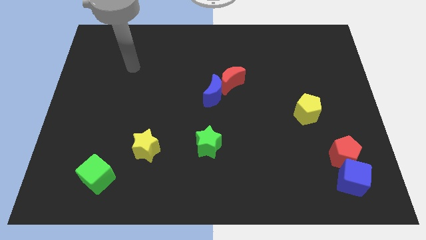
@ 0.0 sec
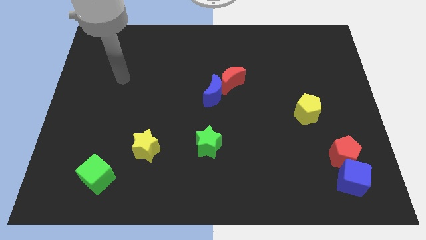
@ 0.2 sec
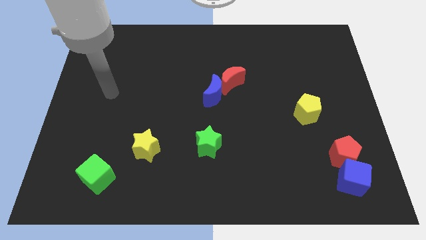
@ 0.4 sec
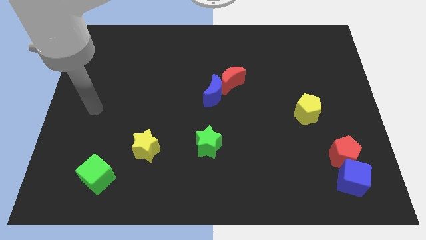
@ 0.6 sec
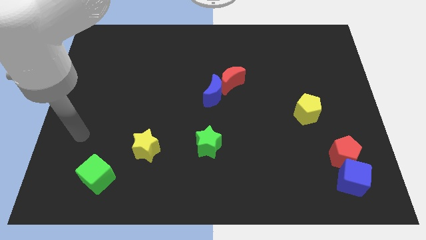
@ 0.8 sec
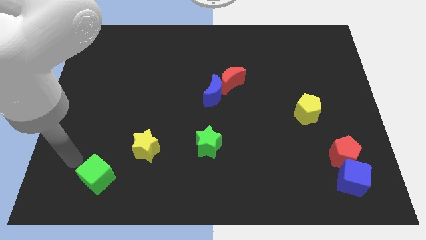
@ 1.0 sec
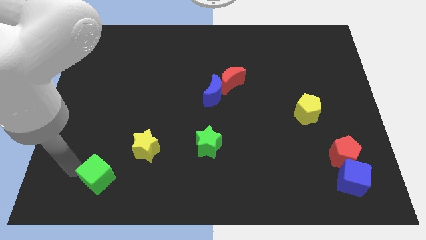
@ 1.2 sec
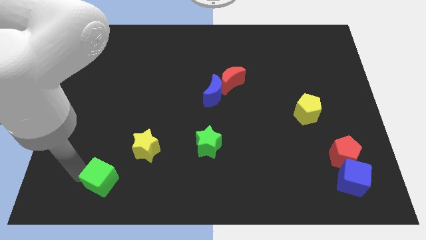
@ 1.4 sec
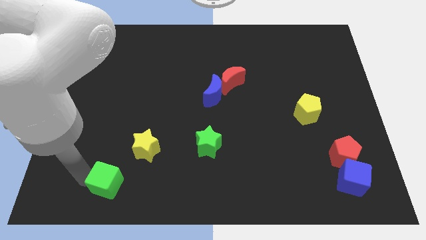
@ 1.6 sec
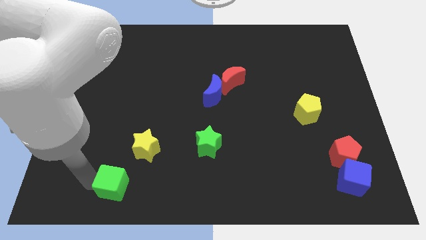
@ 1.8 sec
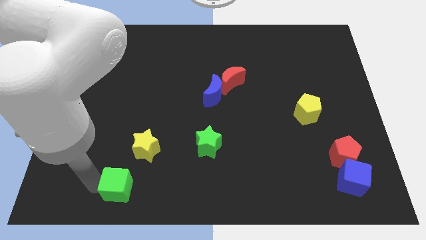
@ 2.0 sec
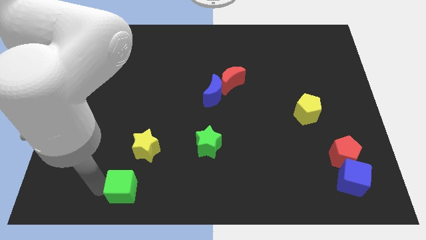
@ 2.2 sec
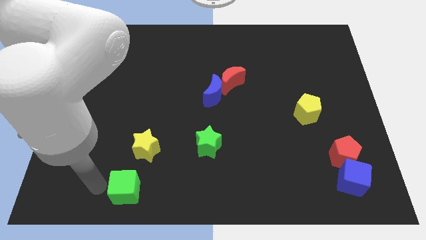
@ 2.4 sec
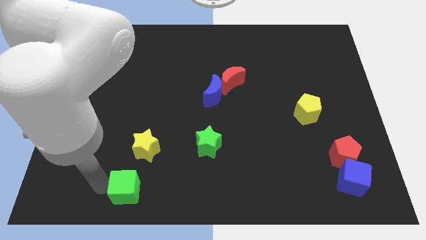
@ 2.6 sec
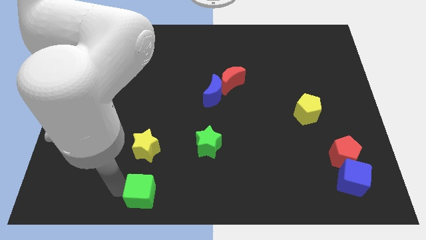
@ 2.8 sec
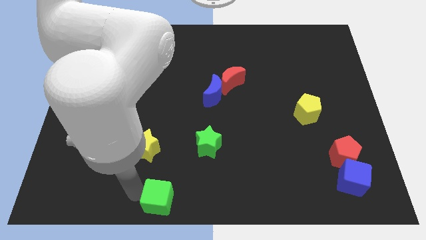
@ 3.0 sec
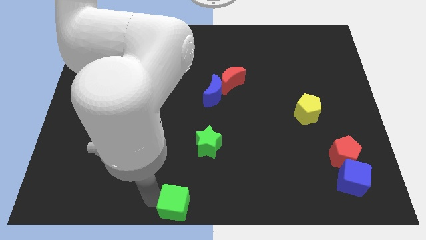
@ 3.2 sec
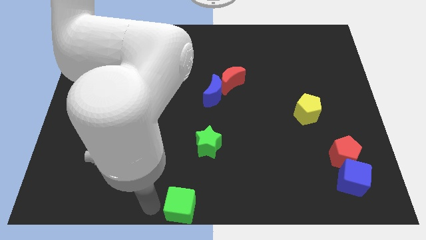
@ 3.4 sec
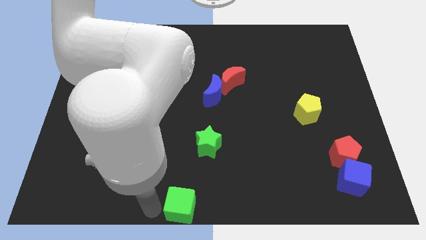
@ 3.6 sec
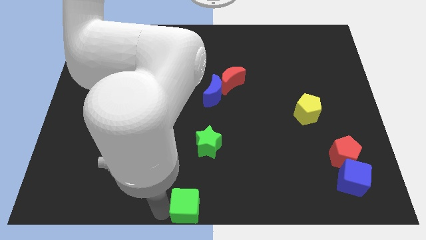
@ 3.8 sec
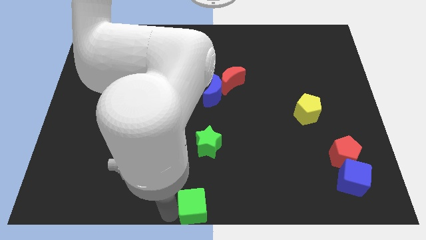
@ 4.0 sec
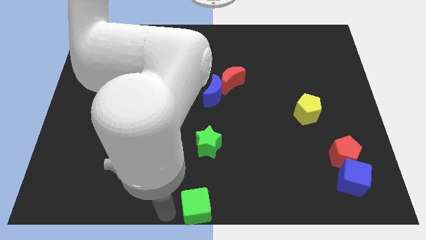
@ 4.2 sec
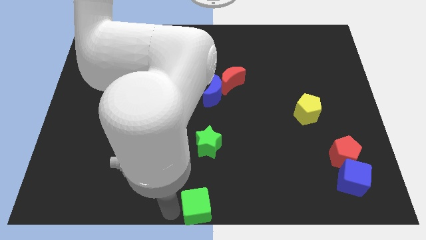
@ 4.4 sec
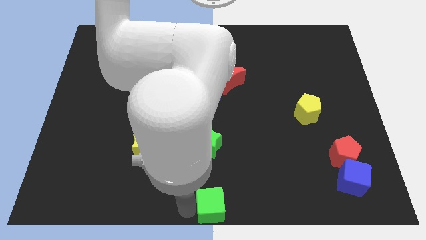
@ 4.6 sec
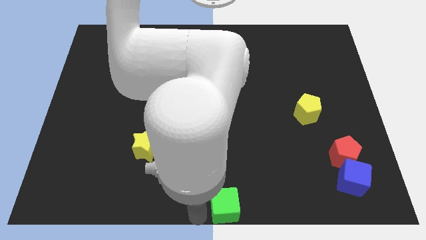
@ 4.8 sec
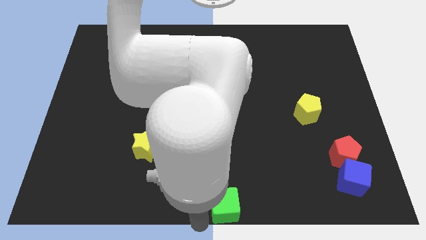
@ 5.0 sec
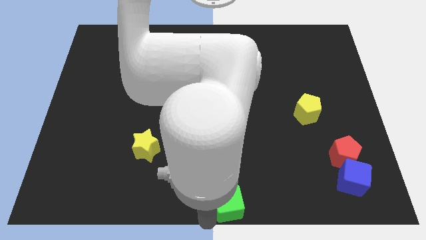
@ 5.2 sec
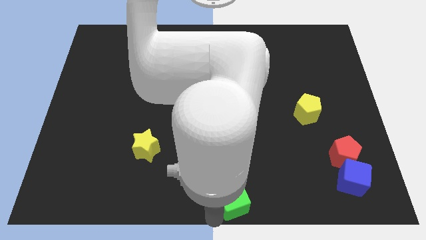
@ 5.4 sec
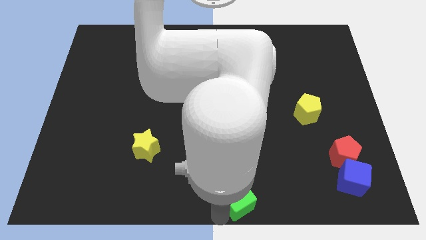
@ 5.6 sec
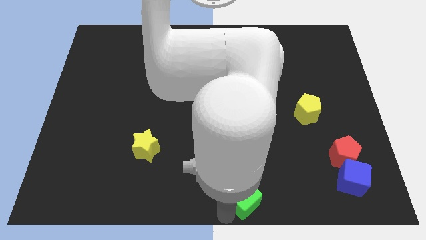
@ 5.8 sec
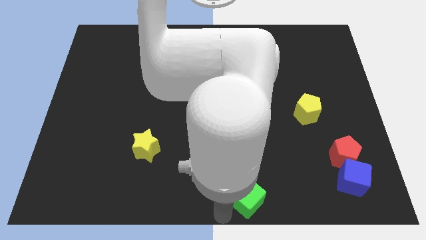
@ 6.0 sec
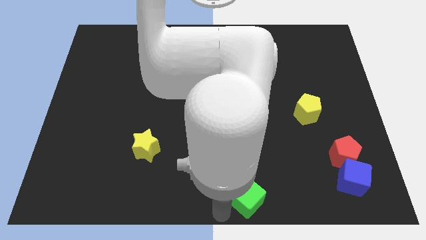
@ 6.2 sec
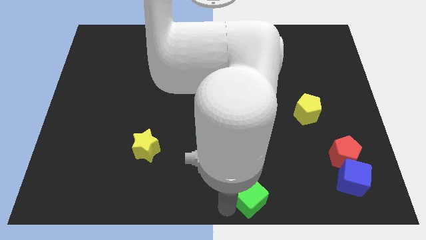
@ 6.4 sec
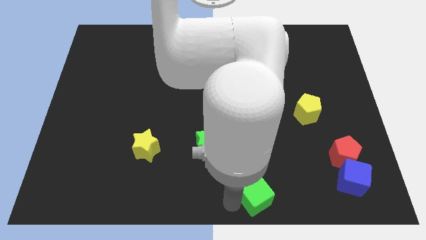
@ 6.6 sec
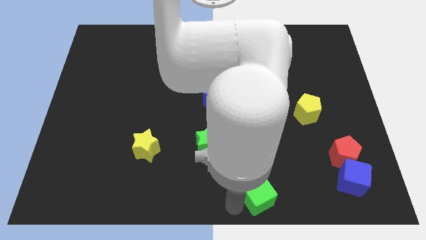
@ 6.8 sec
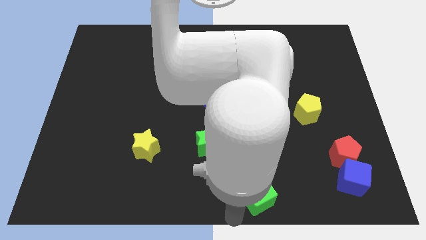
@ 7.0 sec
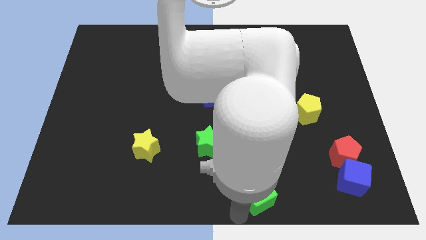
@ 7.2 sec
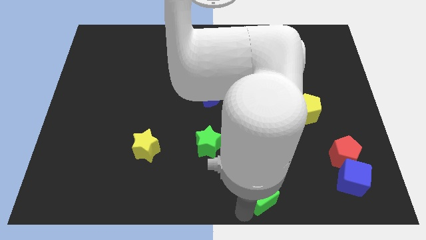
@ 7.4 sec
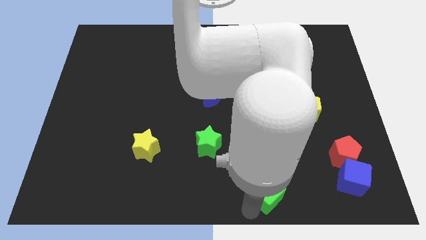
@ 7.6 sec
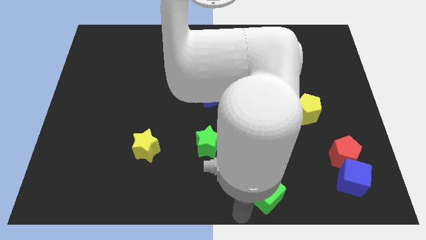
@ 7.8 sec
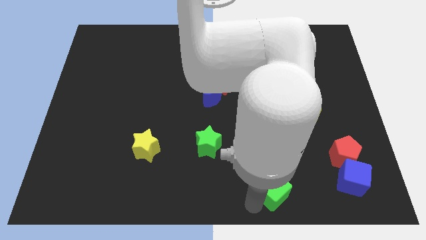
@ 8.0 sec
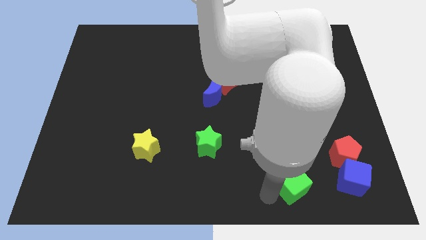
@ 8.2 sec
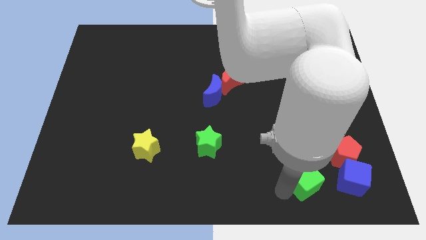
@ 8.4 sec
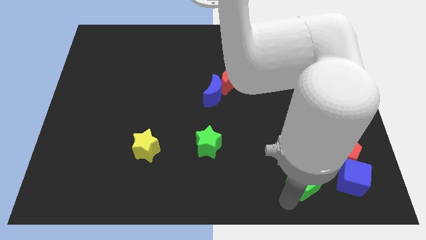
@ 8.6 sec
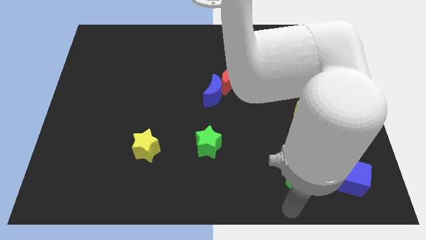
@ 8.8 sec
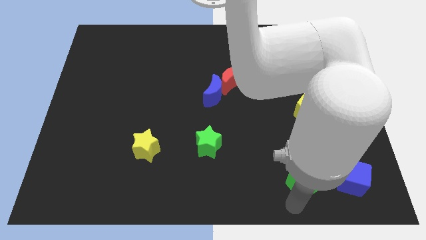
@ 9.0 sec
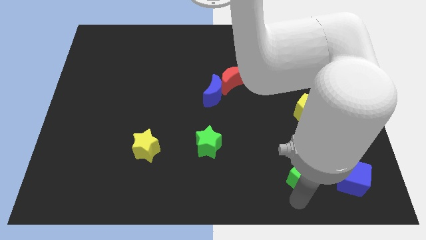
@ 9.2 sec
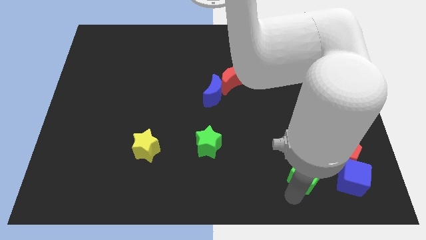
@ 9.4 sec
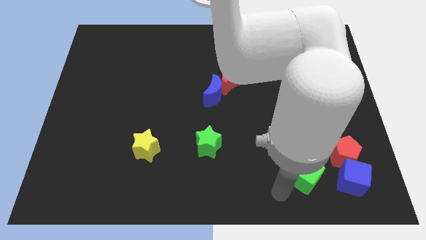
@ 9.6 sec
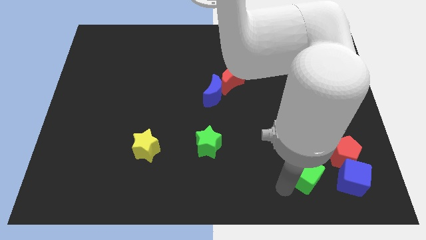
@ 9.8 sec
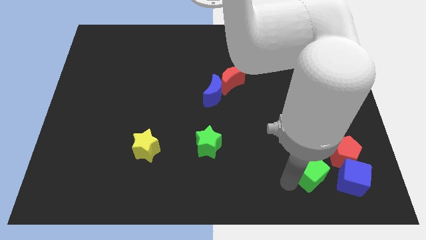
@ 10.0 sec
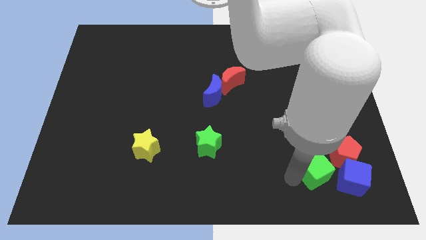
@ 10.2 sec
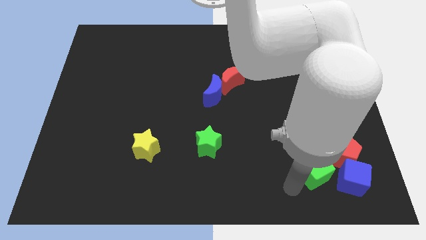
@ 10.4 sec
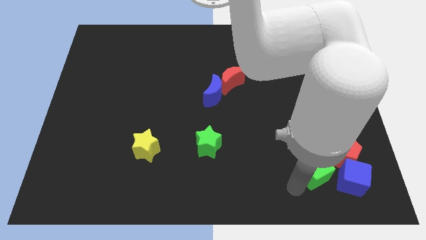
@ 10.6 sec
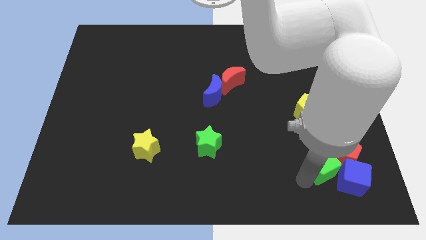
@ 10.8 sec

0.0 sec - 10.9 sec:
slide the green cube next to the red pentagon

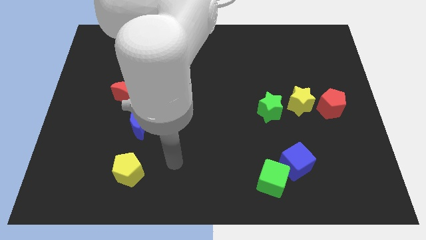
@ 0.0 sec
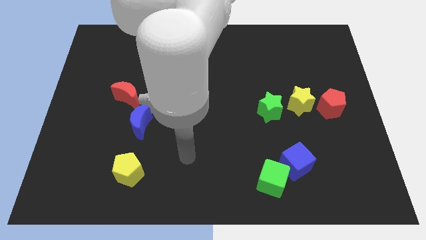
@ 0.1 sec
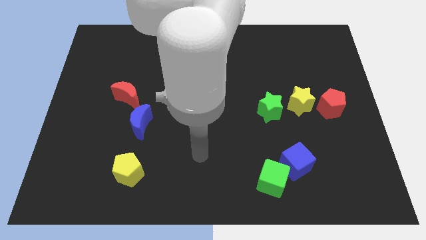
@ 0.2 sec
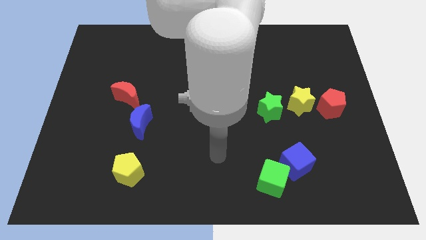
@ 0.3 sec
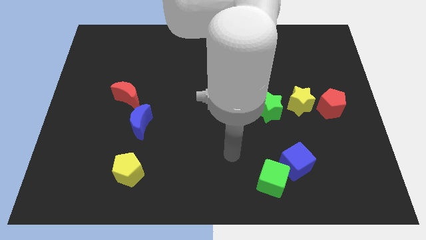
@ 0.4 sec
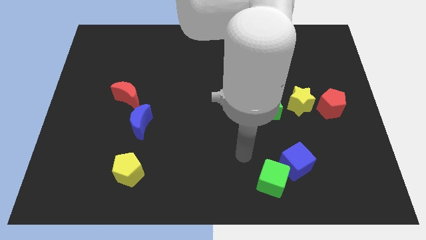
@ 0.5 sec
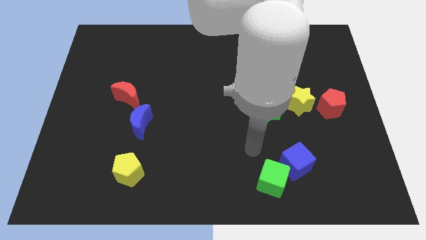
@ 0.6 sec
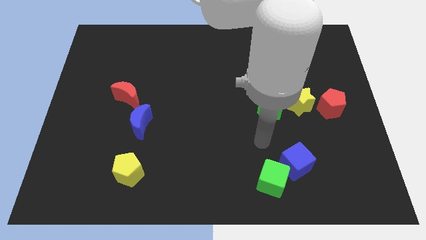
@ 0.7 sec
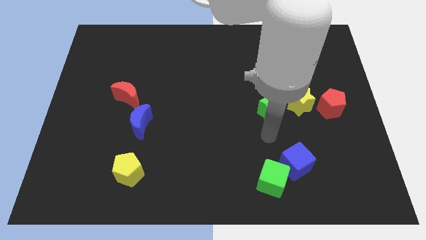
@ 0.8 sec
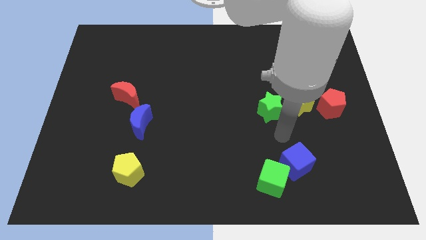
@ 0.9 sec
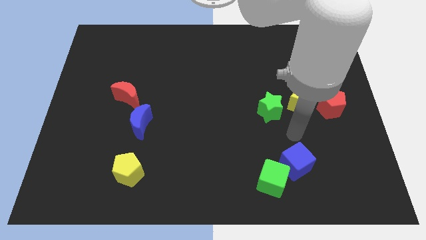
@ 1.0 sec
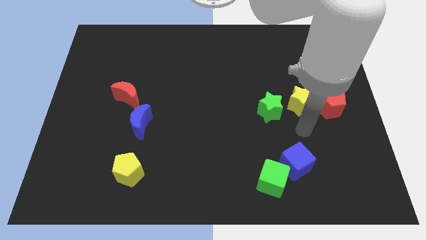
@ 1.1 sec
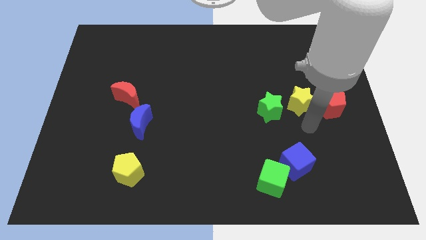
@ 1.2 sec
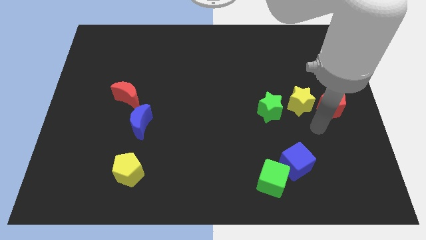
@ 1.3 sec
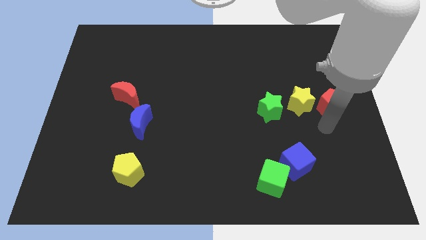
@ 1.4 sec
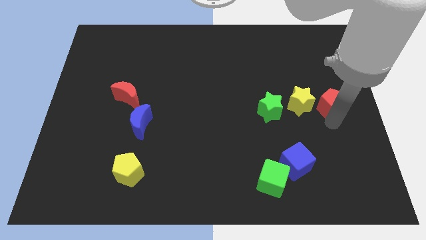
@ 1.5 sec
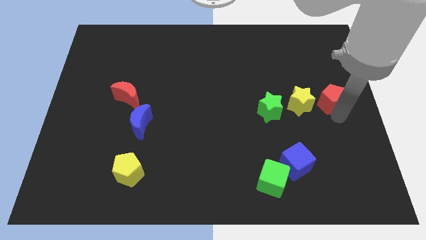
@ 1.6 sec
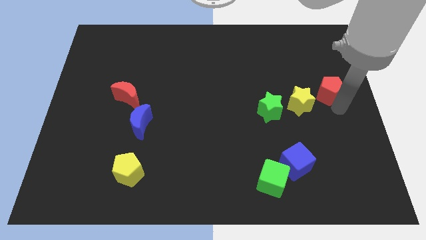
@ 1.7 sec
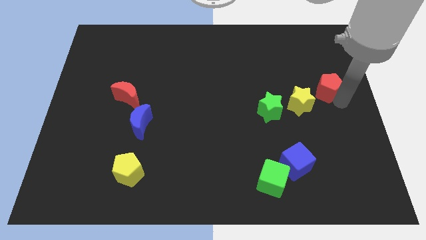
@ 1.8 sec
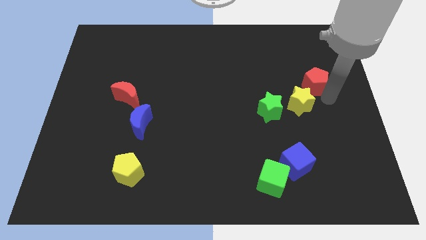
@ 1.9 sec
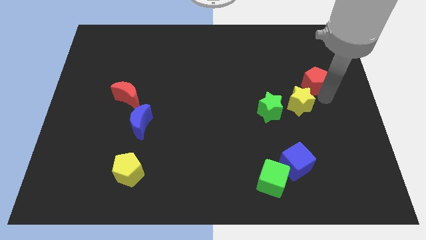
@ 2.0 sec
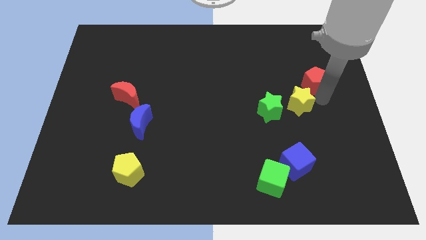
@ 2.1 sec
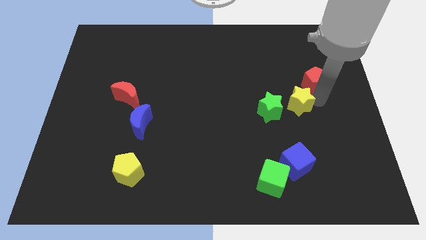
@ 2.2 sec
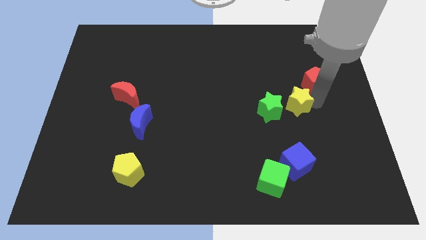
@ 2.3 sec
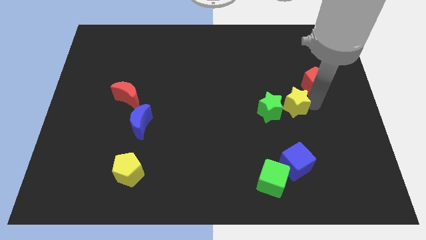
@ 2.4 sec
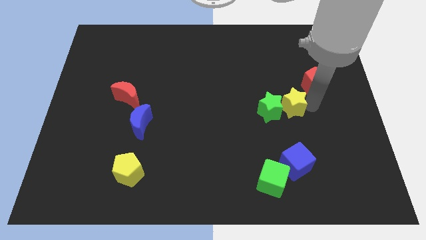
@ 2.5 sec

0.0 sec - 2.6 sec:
slide the yellow star next to the green star
